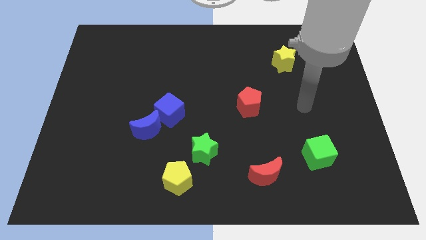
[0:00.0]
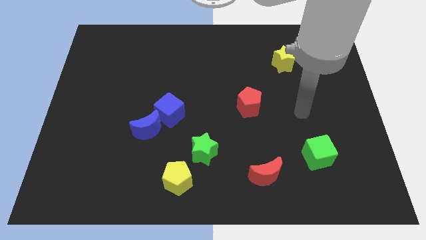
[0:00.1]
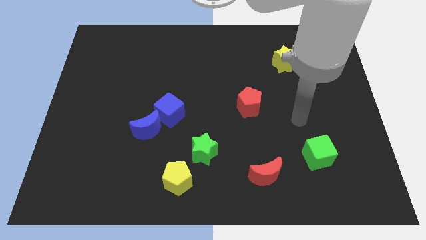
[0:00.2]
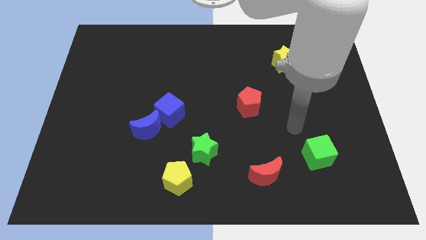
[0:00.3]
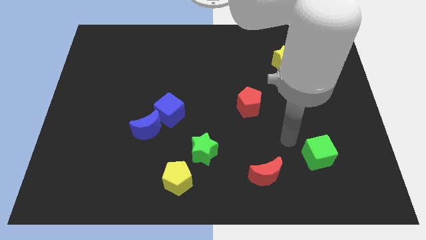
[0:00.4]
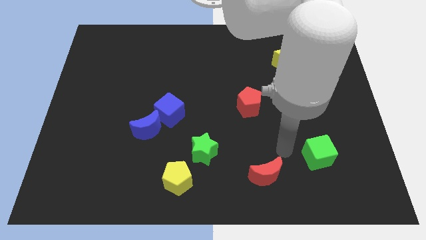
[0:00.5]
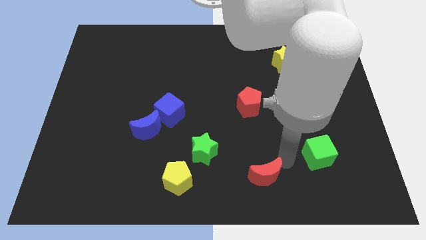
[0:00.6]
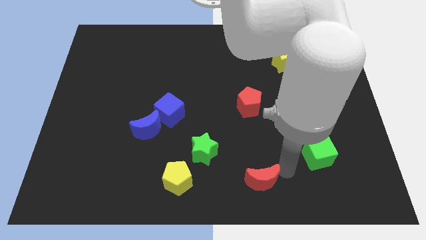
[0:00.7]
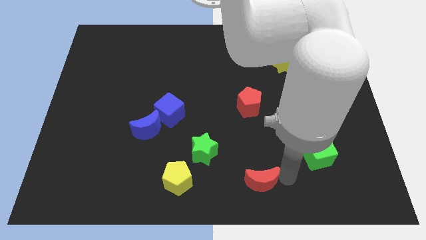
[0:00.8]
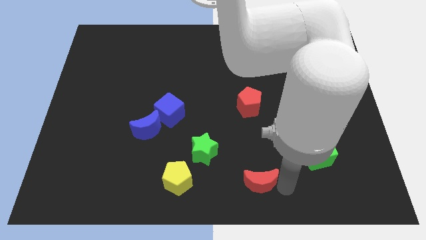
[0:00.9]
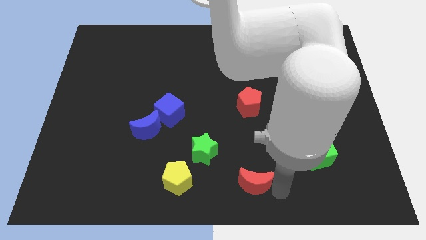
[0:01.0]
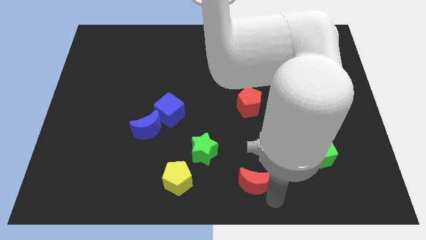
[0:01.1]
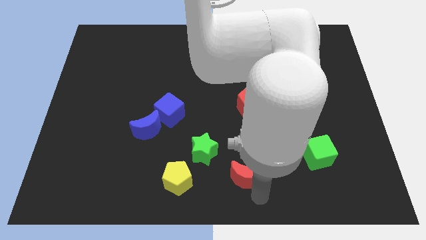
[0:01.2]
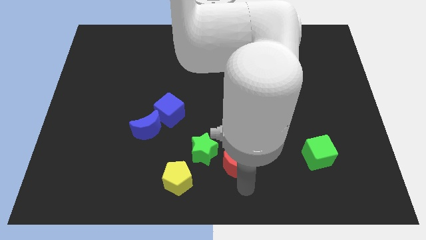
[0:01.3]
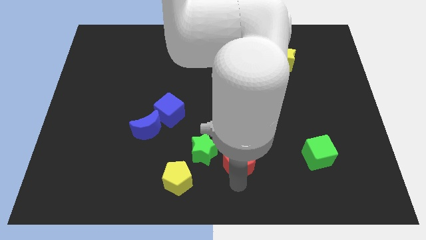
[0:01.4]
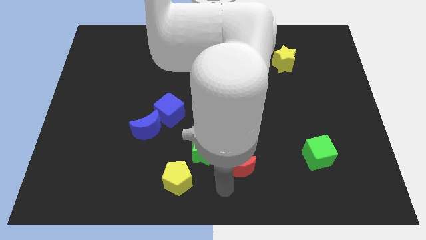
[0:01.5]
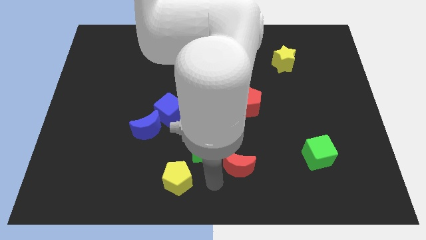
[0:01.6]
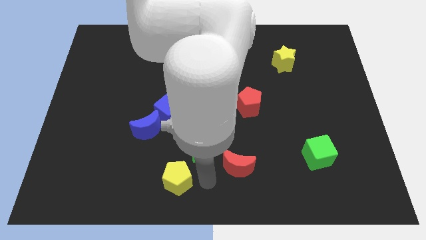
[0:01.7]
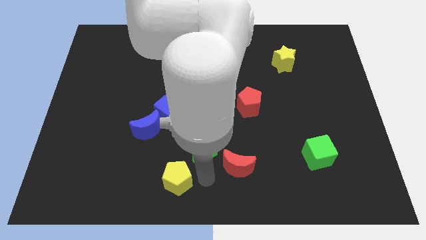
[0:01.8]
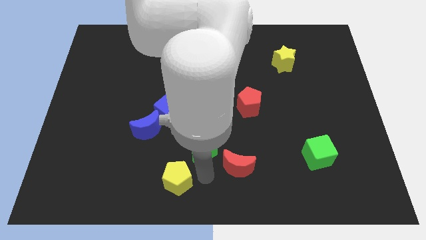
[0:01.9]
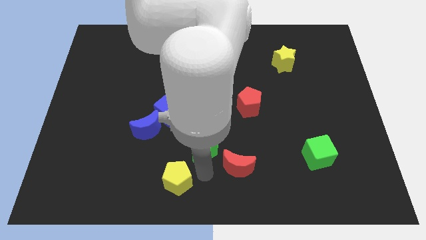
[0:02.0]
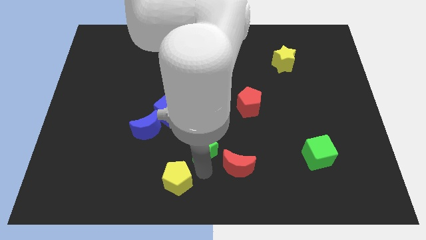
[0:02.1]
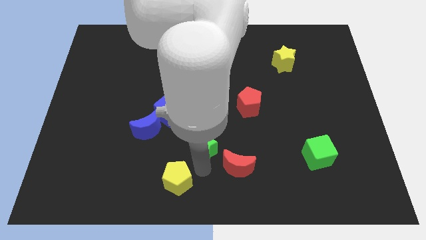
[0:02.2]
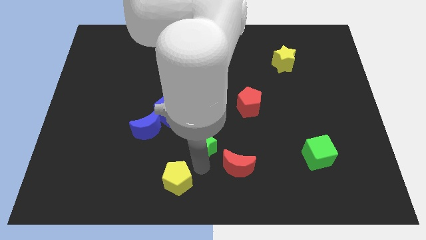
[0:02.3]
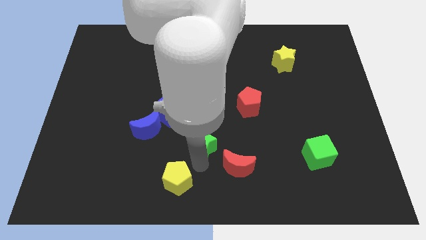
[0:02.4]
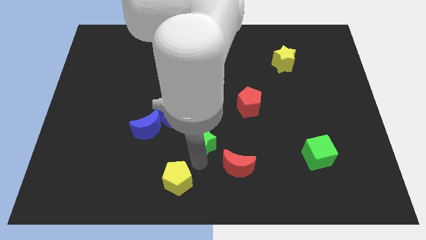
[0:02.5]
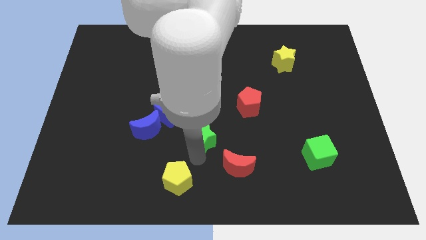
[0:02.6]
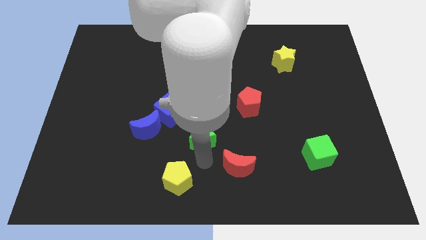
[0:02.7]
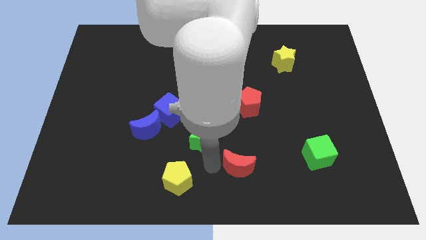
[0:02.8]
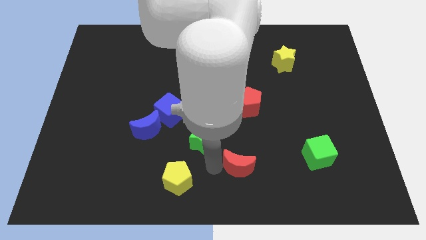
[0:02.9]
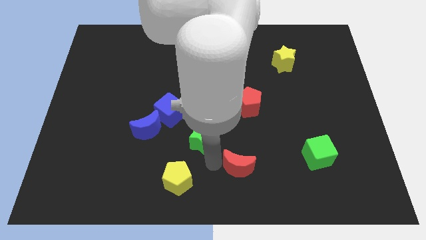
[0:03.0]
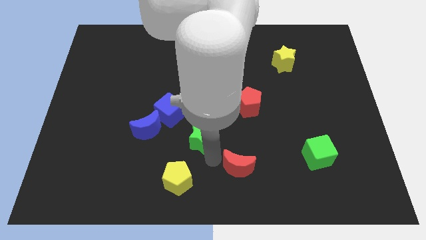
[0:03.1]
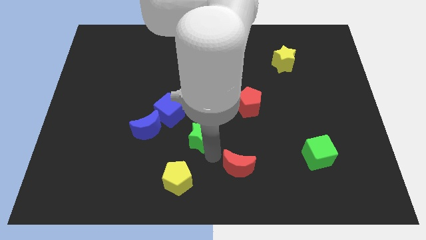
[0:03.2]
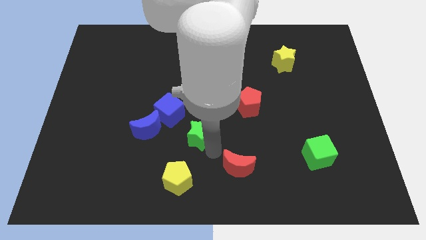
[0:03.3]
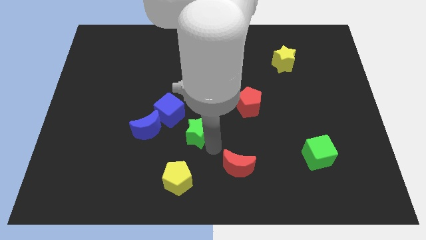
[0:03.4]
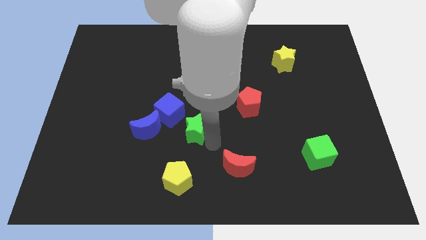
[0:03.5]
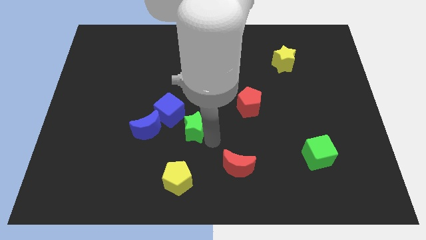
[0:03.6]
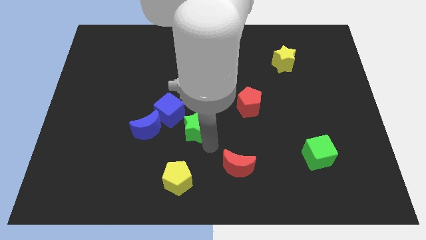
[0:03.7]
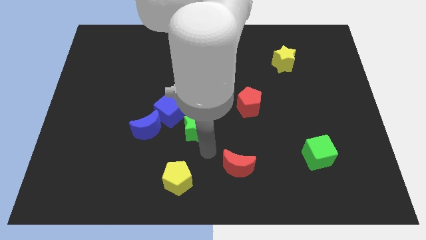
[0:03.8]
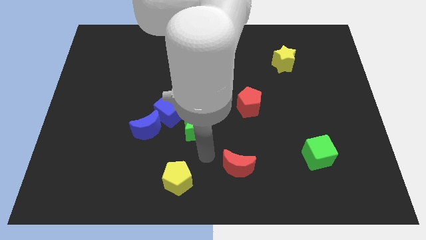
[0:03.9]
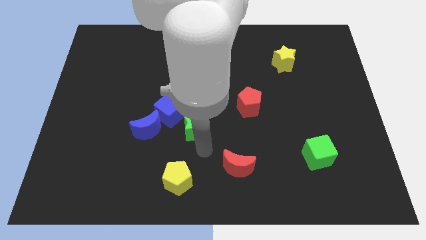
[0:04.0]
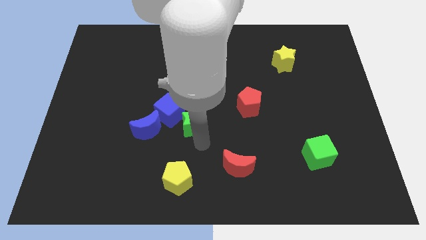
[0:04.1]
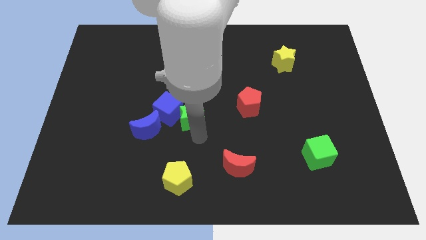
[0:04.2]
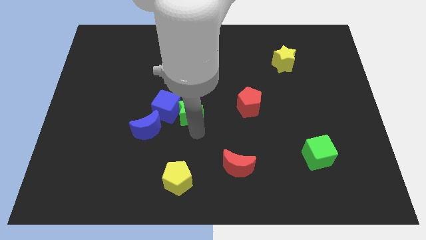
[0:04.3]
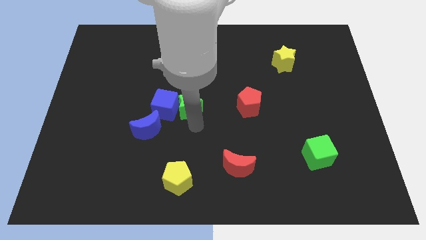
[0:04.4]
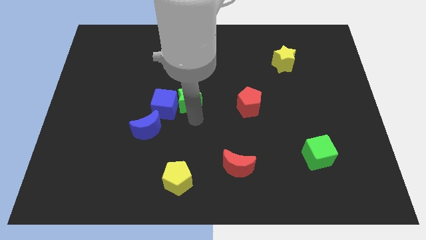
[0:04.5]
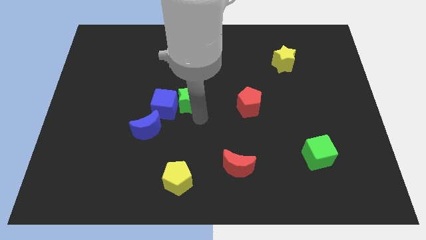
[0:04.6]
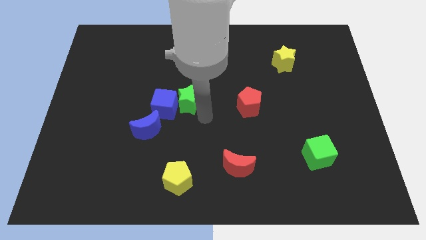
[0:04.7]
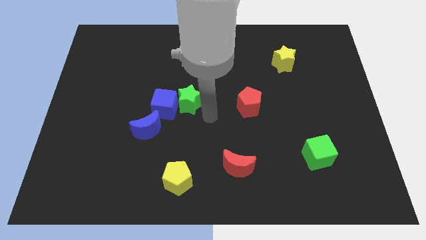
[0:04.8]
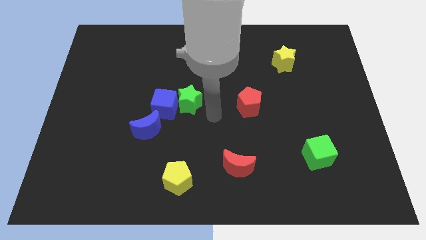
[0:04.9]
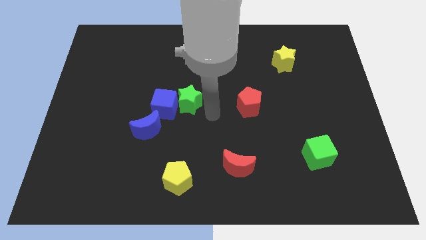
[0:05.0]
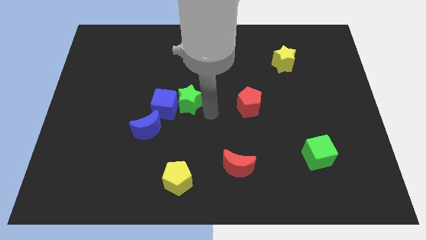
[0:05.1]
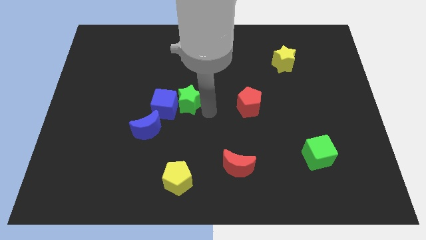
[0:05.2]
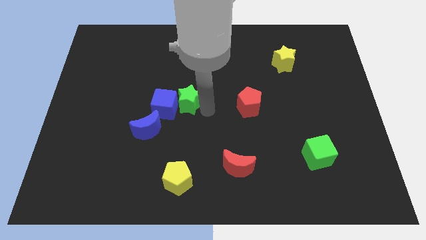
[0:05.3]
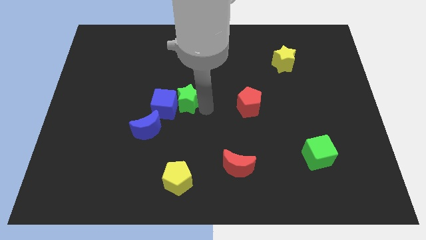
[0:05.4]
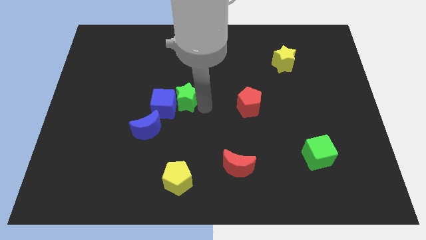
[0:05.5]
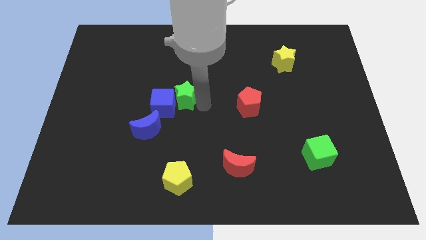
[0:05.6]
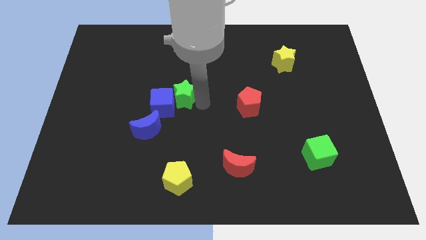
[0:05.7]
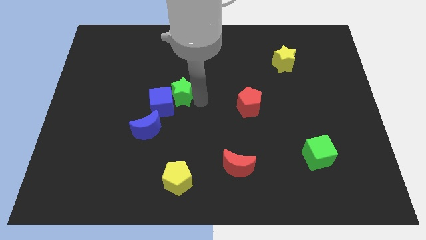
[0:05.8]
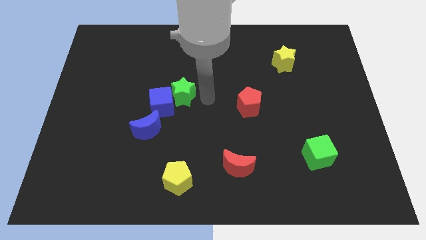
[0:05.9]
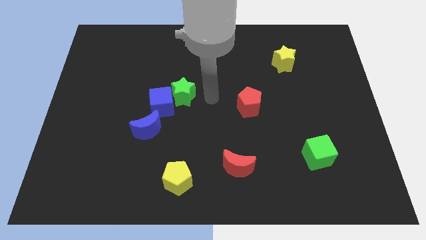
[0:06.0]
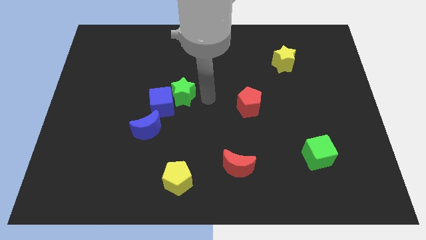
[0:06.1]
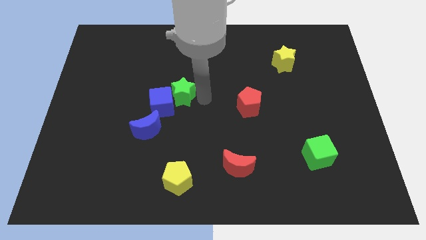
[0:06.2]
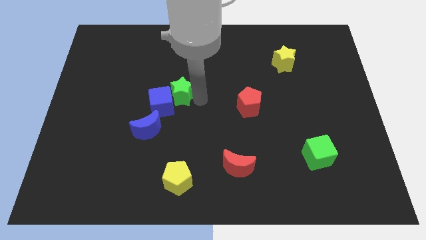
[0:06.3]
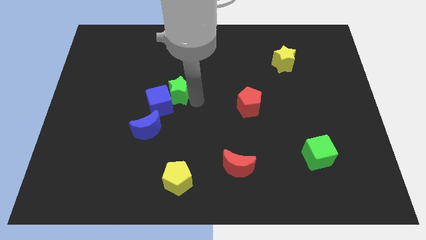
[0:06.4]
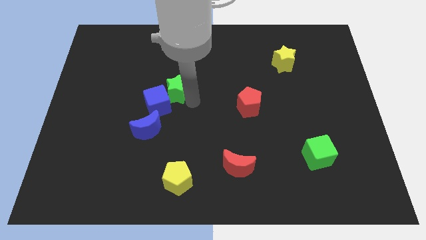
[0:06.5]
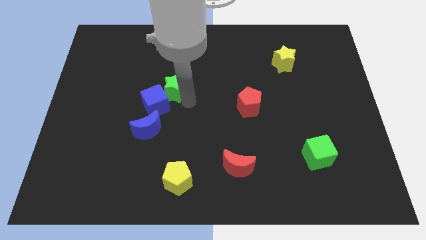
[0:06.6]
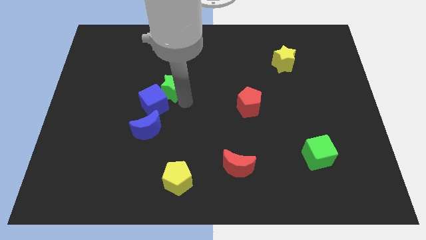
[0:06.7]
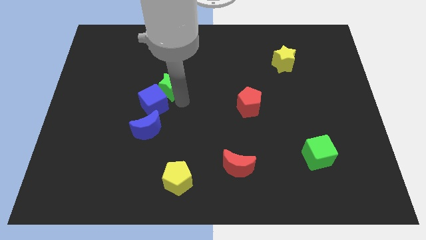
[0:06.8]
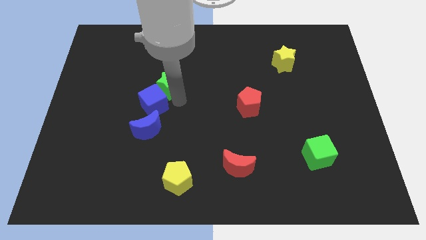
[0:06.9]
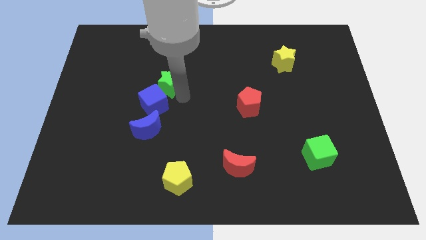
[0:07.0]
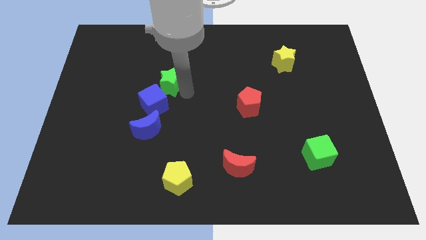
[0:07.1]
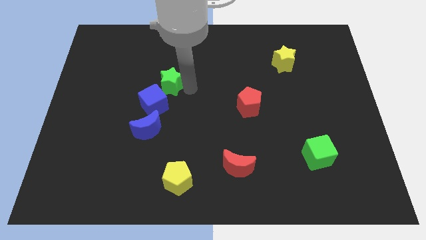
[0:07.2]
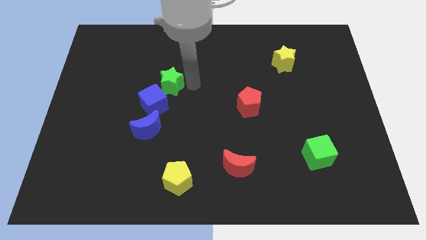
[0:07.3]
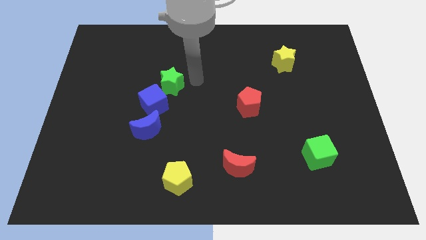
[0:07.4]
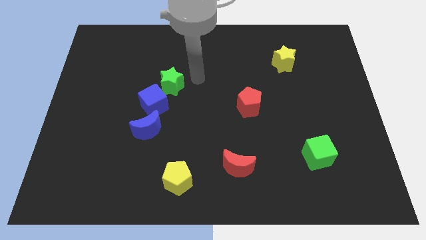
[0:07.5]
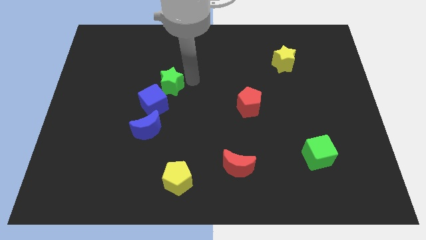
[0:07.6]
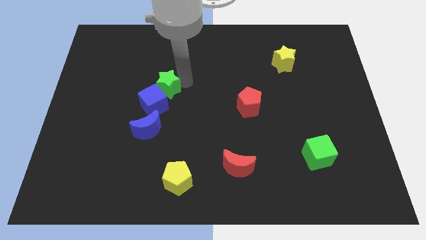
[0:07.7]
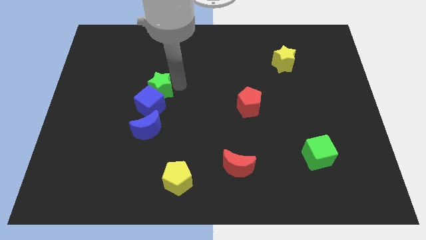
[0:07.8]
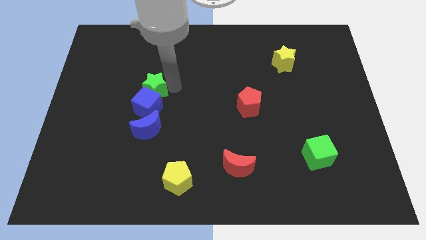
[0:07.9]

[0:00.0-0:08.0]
push the green star upwards and then to the left

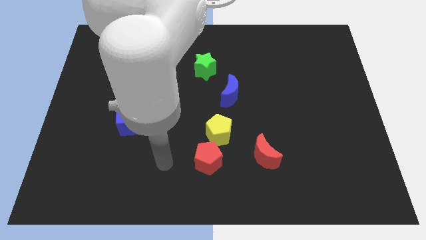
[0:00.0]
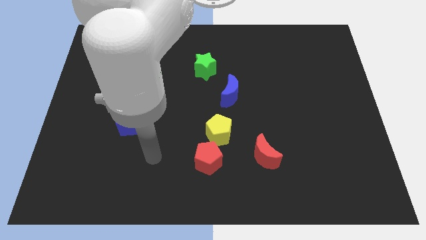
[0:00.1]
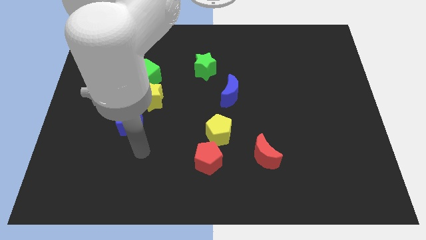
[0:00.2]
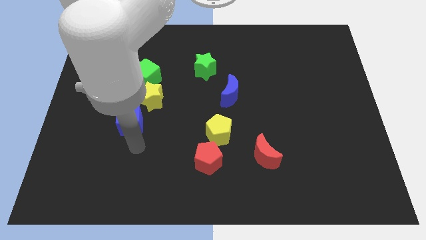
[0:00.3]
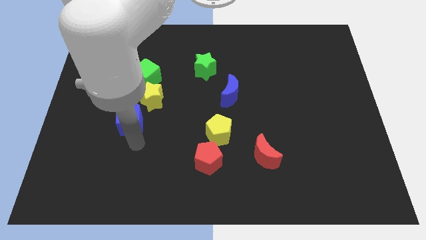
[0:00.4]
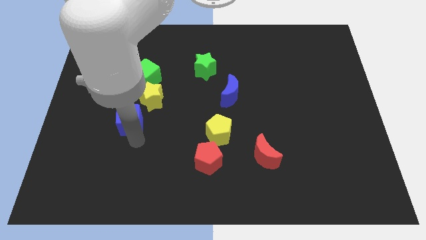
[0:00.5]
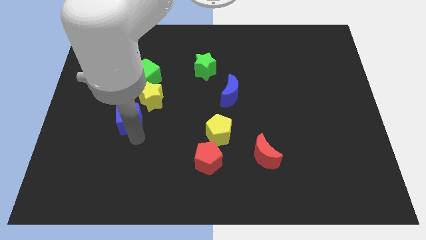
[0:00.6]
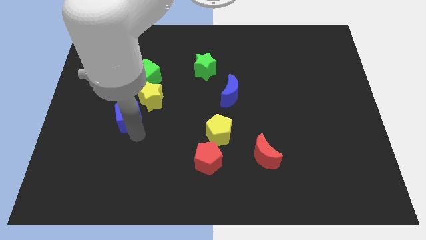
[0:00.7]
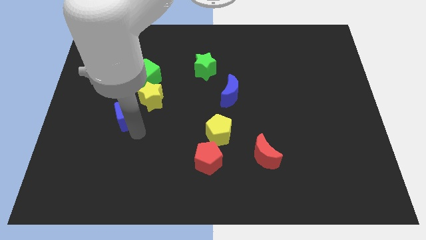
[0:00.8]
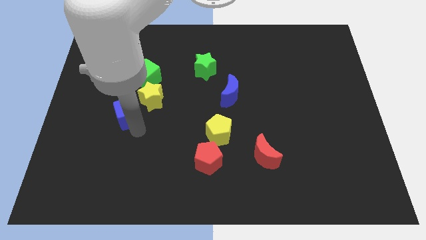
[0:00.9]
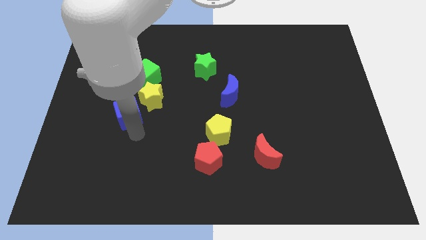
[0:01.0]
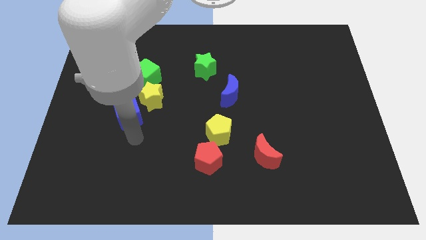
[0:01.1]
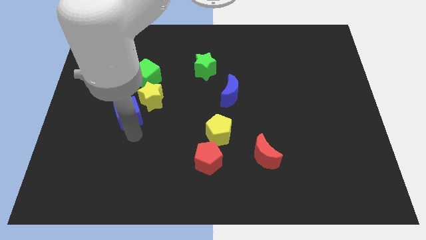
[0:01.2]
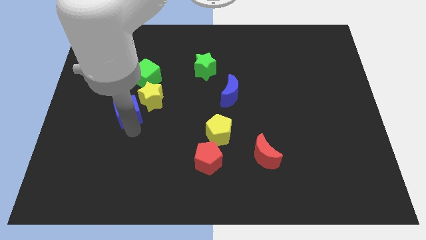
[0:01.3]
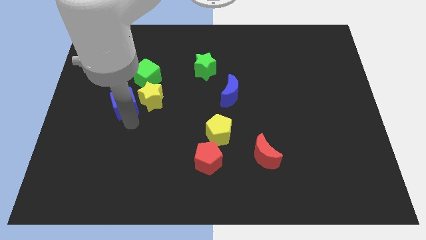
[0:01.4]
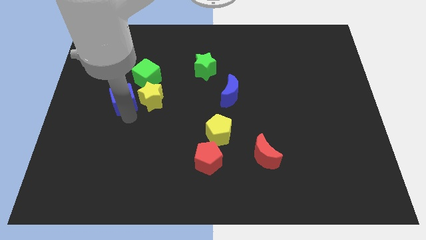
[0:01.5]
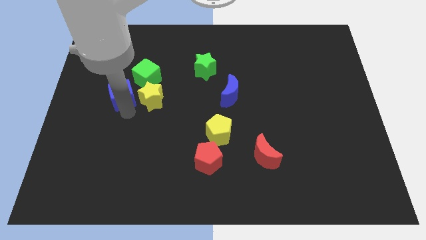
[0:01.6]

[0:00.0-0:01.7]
move the blue cube a little upwards
